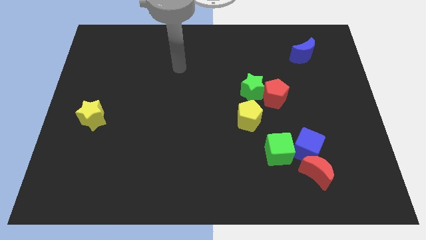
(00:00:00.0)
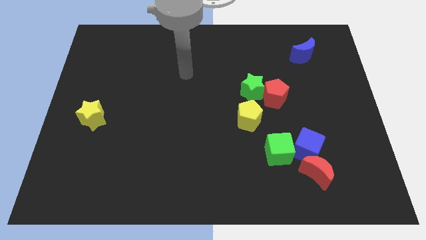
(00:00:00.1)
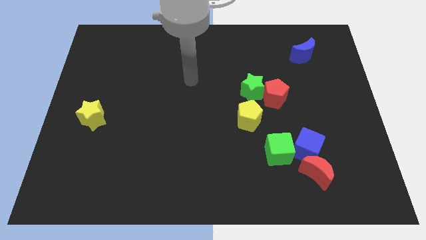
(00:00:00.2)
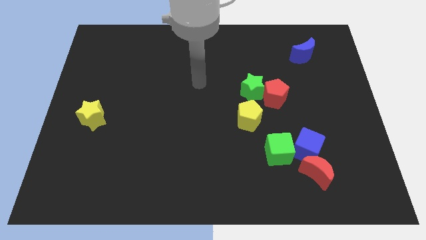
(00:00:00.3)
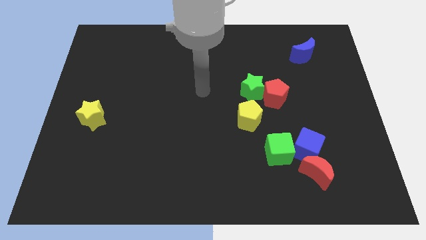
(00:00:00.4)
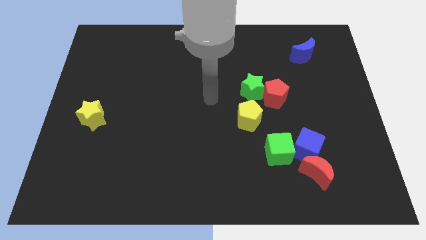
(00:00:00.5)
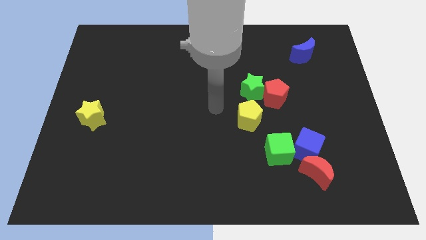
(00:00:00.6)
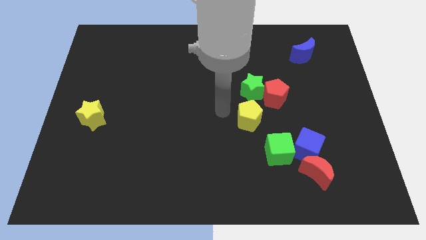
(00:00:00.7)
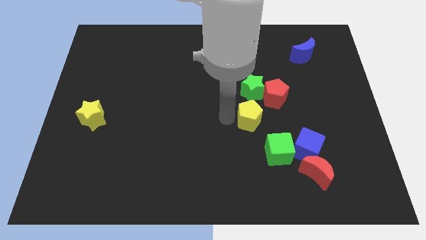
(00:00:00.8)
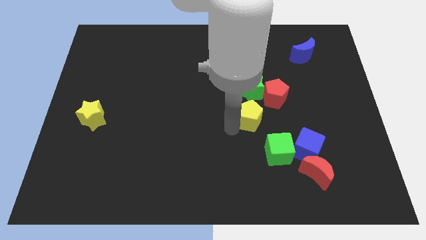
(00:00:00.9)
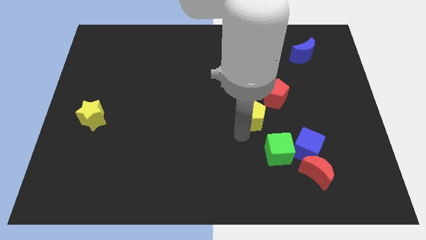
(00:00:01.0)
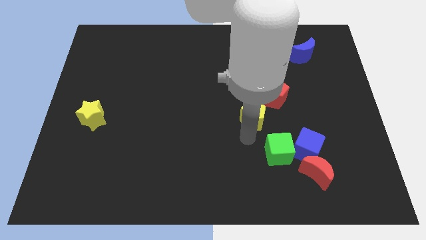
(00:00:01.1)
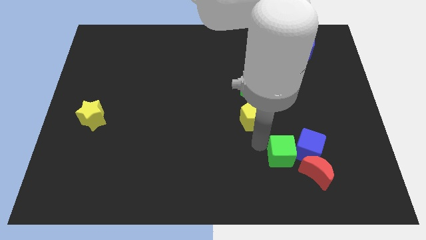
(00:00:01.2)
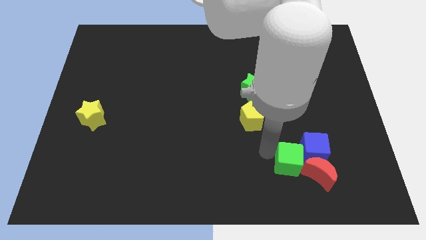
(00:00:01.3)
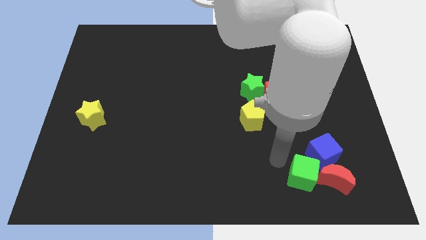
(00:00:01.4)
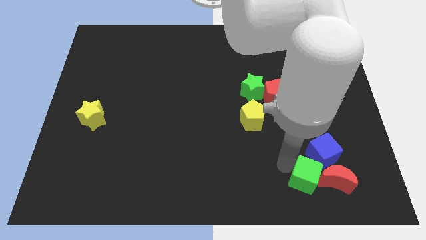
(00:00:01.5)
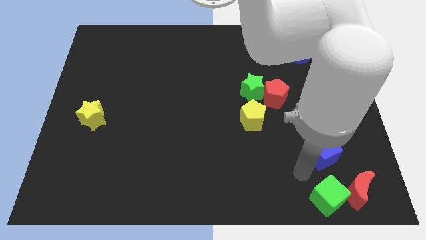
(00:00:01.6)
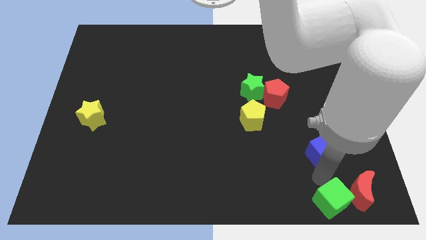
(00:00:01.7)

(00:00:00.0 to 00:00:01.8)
separate the blue cube from the red moon and green cube

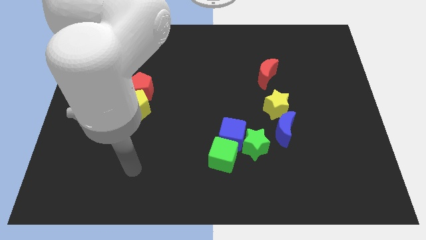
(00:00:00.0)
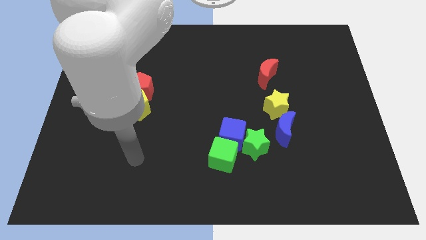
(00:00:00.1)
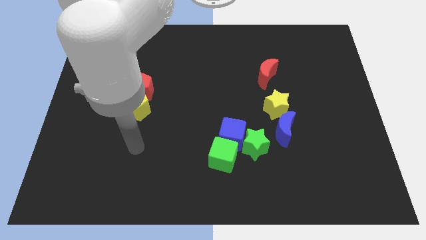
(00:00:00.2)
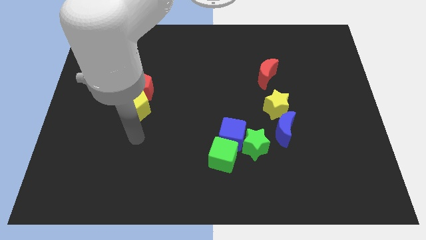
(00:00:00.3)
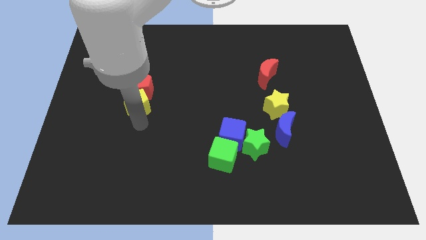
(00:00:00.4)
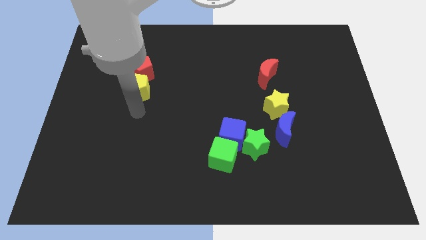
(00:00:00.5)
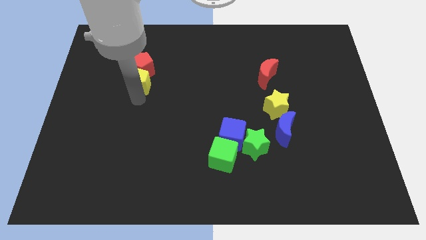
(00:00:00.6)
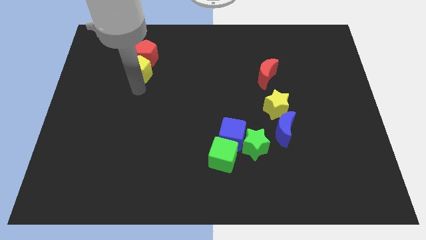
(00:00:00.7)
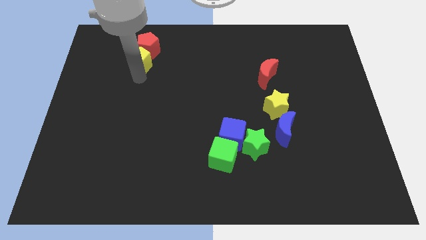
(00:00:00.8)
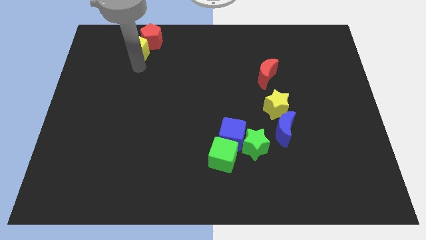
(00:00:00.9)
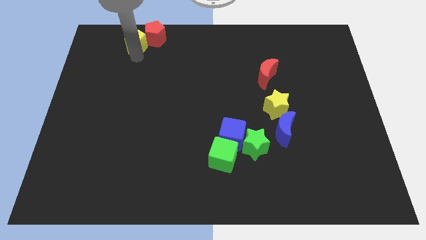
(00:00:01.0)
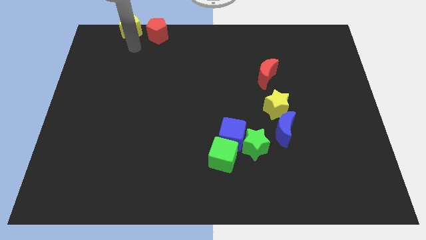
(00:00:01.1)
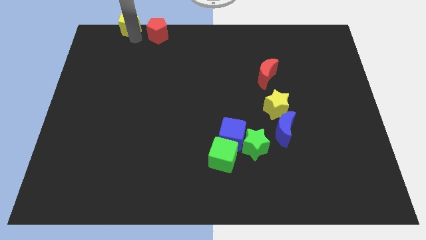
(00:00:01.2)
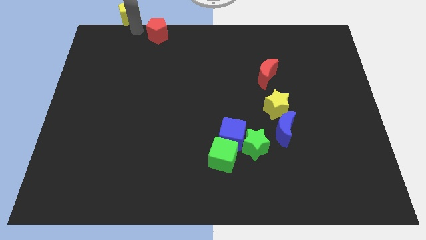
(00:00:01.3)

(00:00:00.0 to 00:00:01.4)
move the red pentagon away from the yellow pentagon

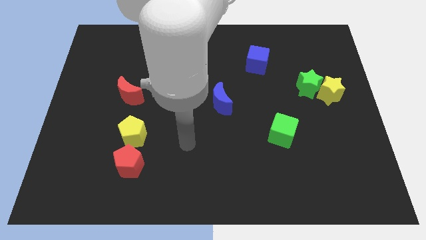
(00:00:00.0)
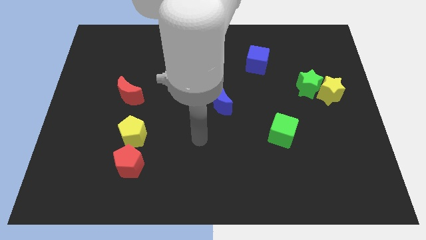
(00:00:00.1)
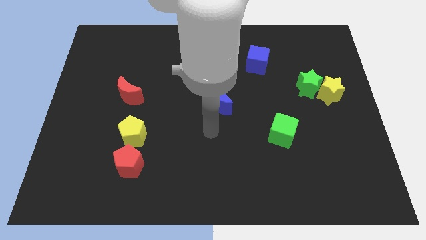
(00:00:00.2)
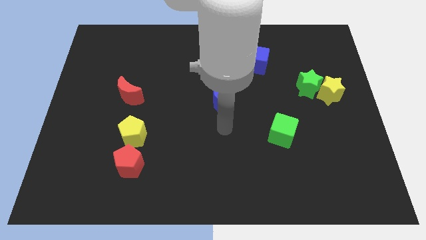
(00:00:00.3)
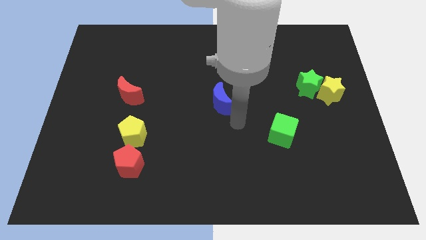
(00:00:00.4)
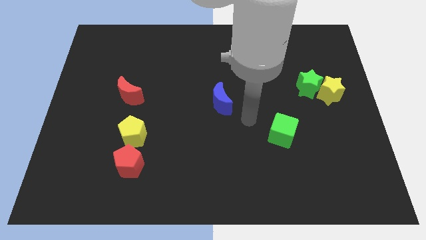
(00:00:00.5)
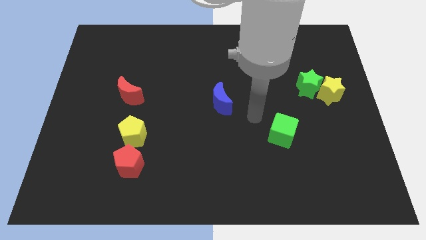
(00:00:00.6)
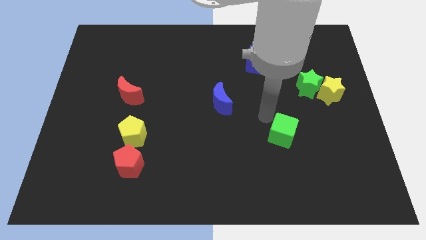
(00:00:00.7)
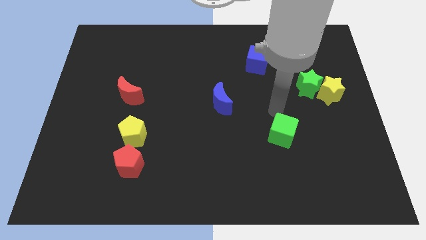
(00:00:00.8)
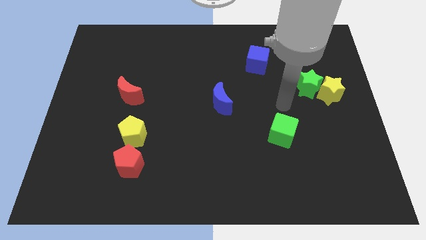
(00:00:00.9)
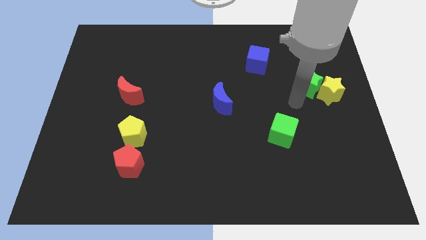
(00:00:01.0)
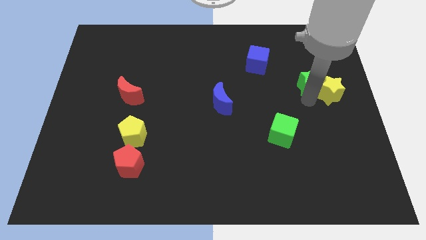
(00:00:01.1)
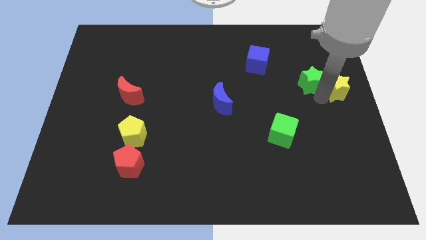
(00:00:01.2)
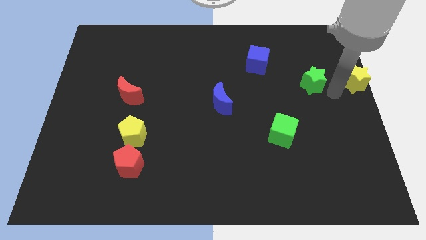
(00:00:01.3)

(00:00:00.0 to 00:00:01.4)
pull the green star apart from the yellow star

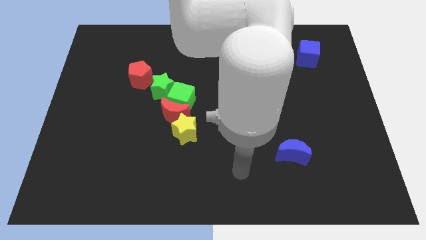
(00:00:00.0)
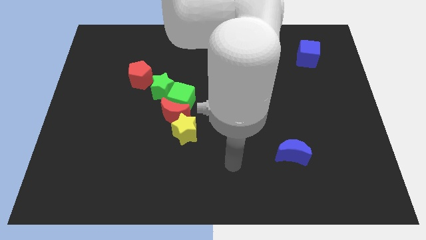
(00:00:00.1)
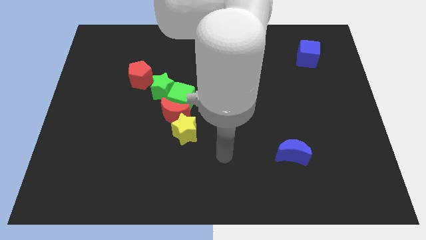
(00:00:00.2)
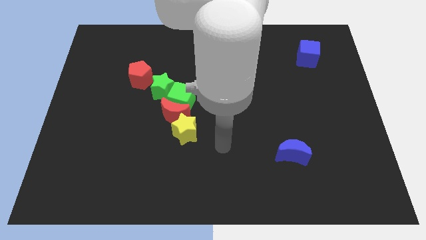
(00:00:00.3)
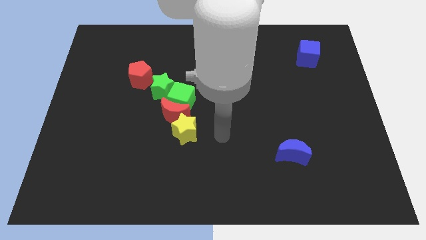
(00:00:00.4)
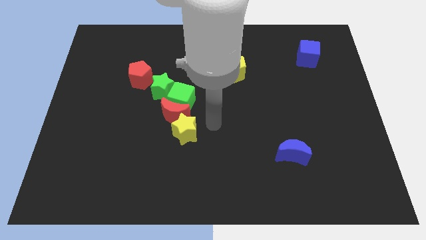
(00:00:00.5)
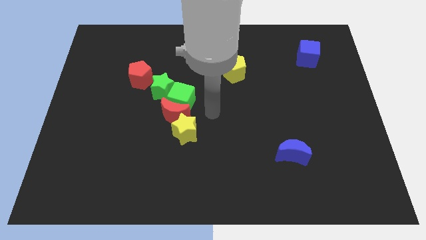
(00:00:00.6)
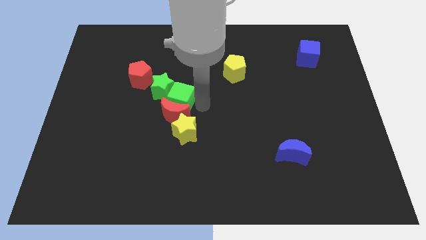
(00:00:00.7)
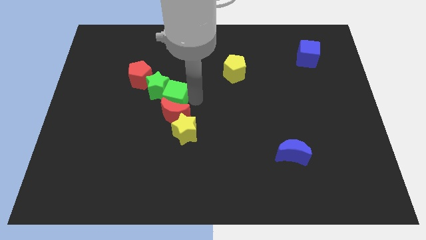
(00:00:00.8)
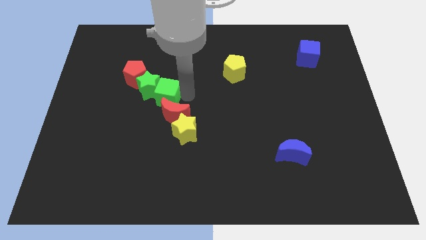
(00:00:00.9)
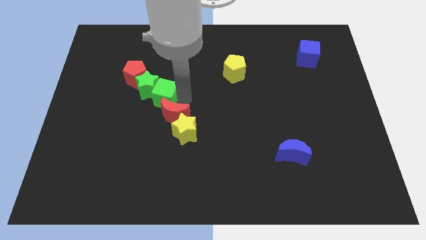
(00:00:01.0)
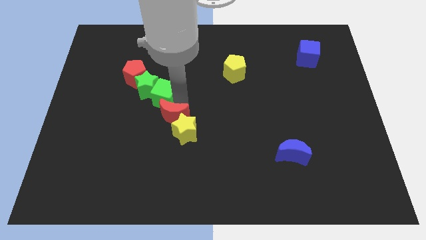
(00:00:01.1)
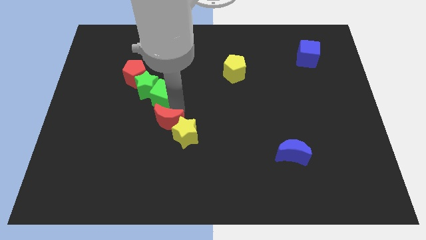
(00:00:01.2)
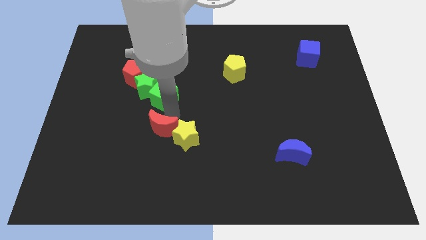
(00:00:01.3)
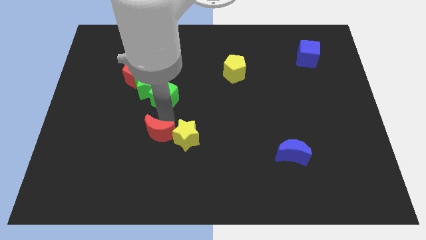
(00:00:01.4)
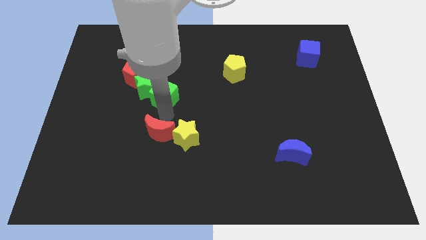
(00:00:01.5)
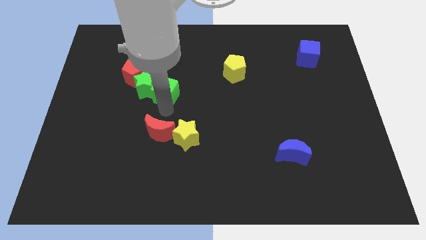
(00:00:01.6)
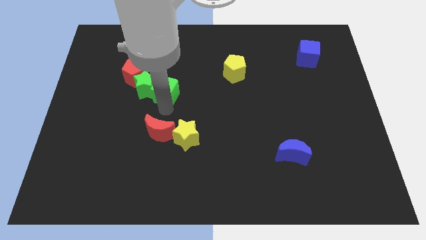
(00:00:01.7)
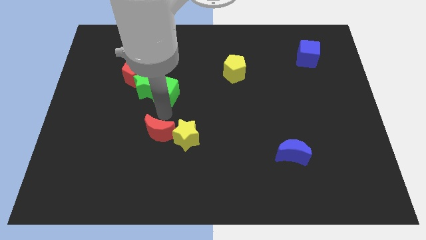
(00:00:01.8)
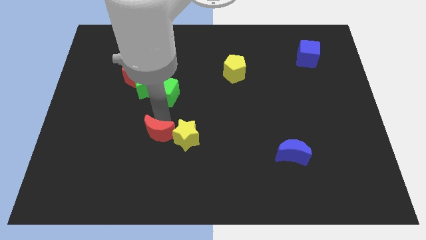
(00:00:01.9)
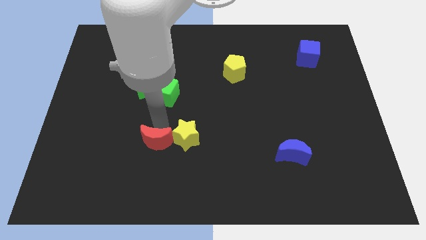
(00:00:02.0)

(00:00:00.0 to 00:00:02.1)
separate the red moon from the clump

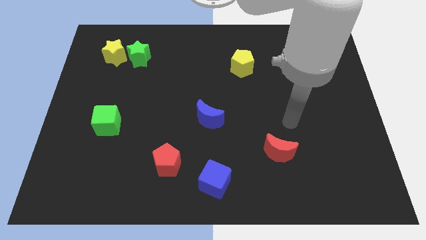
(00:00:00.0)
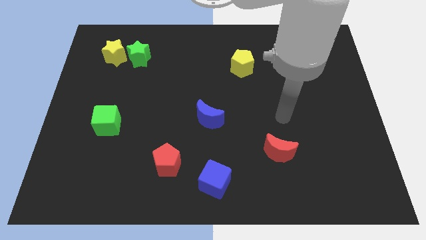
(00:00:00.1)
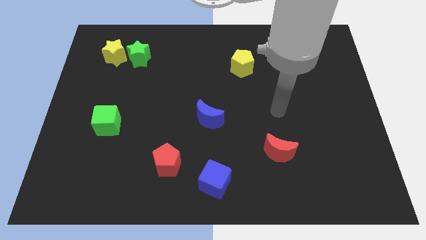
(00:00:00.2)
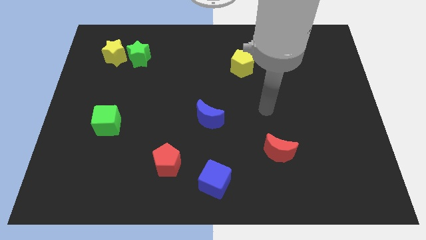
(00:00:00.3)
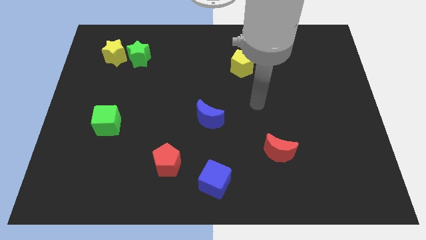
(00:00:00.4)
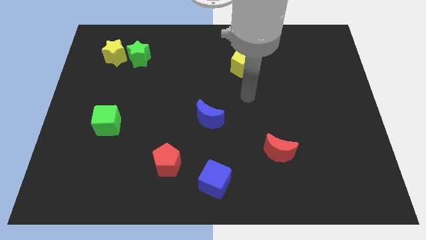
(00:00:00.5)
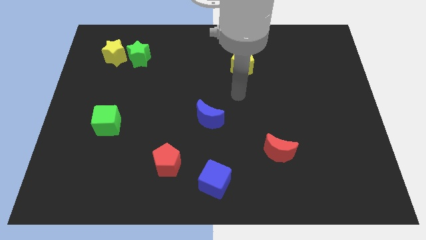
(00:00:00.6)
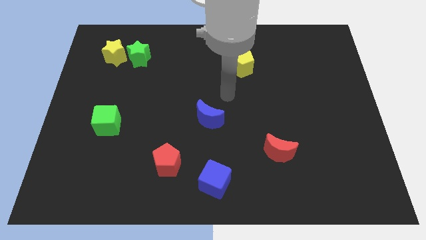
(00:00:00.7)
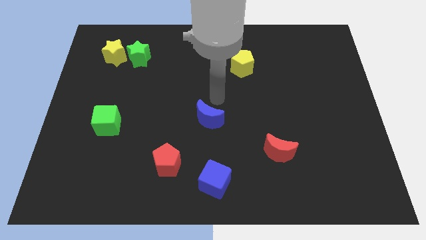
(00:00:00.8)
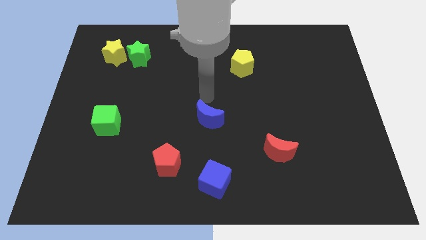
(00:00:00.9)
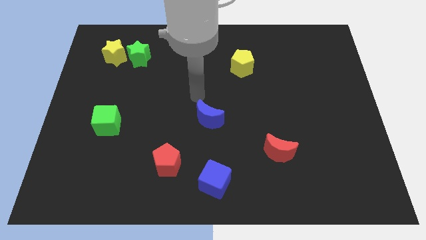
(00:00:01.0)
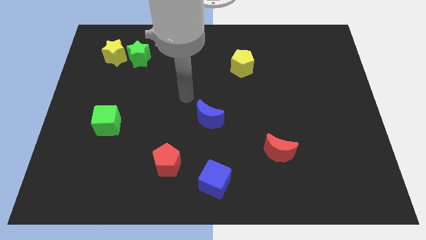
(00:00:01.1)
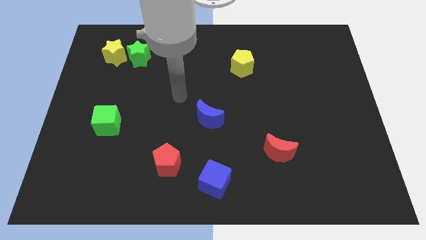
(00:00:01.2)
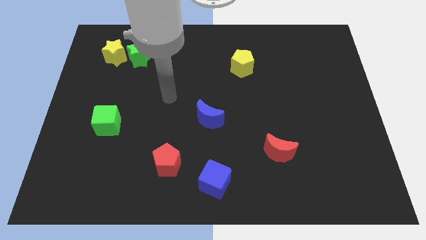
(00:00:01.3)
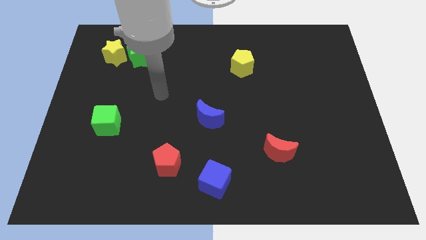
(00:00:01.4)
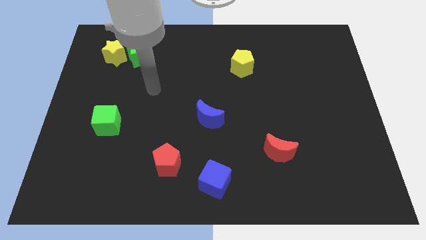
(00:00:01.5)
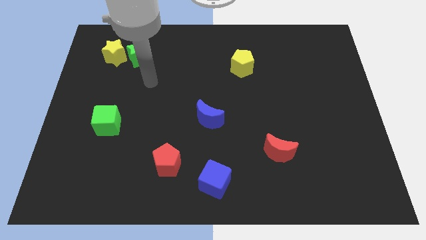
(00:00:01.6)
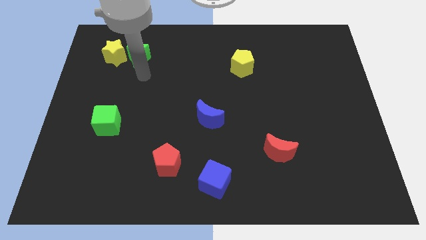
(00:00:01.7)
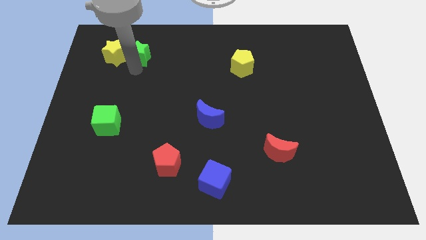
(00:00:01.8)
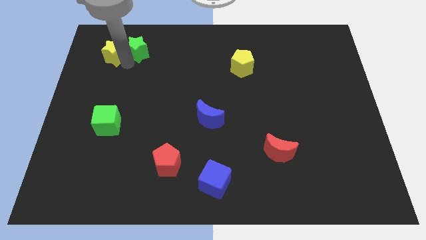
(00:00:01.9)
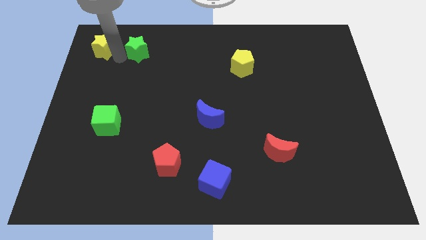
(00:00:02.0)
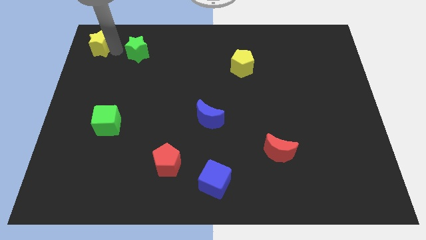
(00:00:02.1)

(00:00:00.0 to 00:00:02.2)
move the green star away from the yellow star

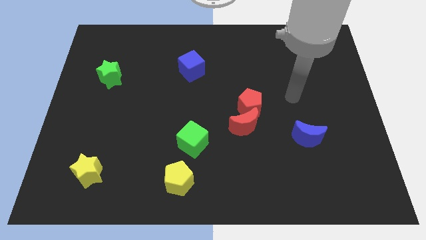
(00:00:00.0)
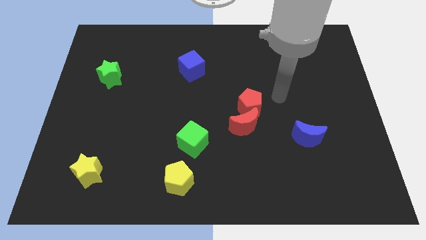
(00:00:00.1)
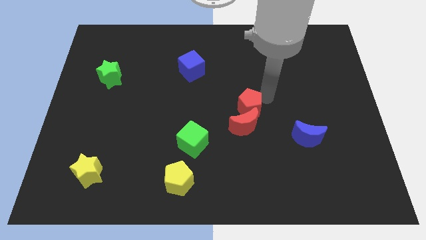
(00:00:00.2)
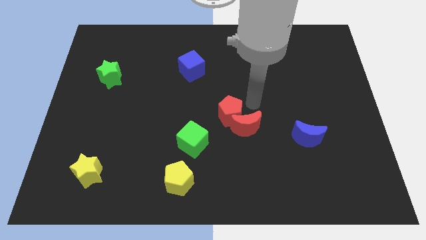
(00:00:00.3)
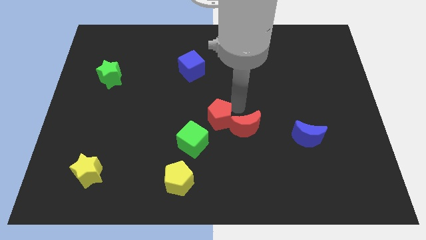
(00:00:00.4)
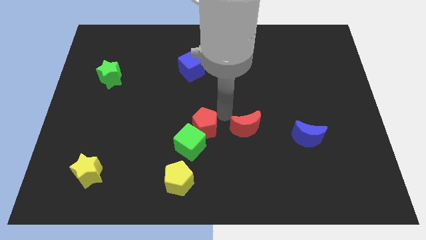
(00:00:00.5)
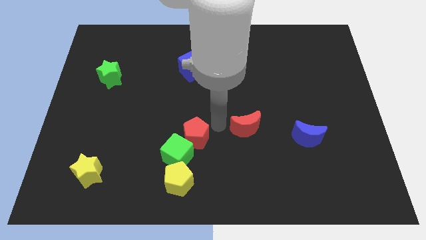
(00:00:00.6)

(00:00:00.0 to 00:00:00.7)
move the red moon away from the red pentagon
